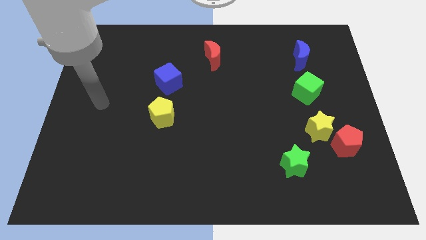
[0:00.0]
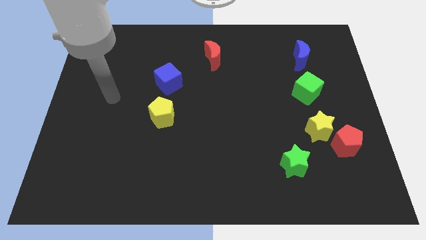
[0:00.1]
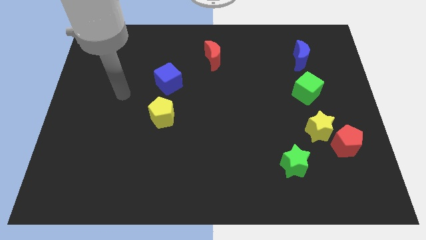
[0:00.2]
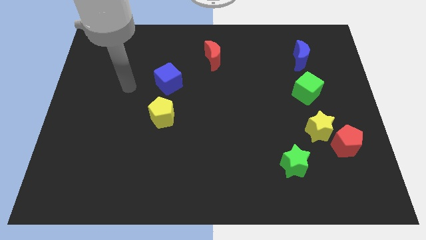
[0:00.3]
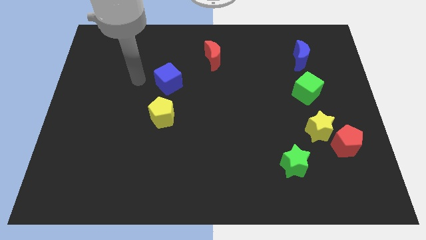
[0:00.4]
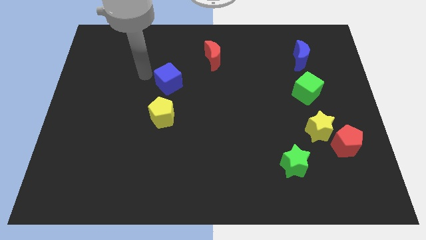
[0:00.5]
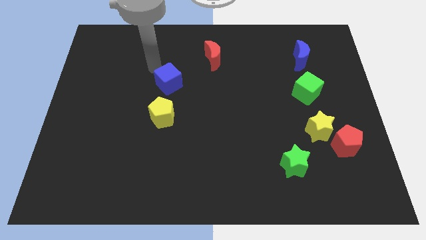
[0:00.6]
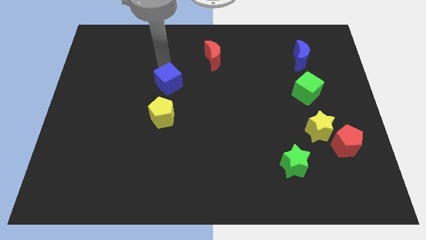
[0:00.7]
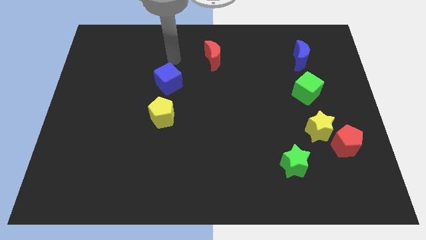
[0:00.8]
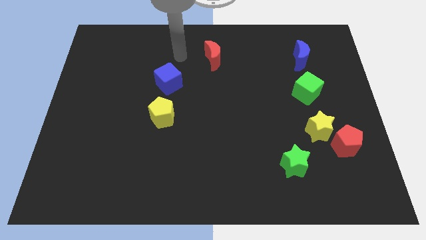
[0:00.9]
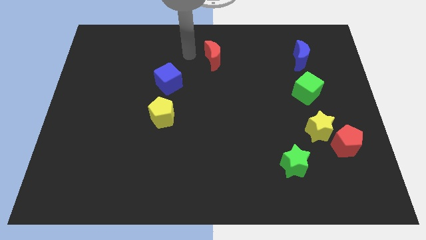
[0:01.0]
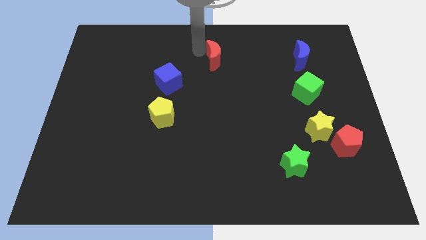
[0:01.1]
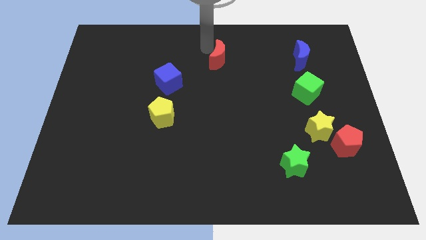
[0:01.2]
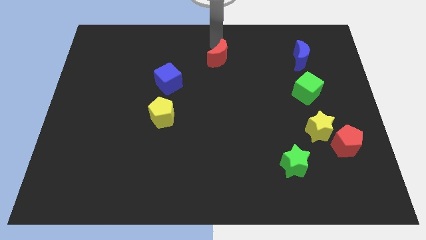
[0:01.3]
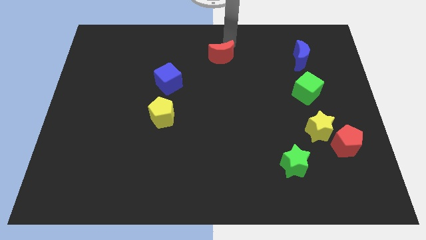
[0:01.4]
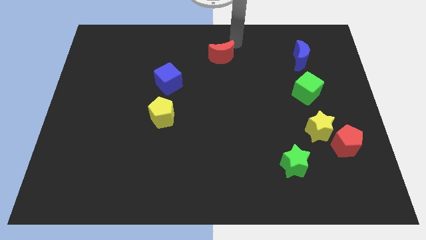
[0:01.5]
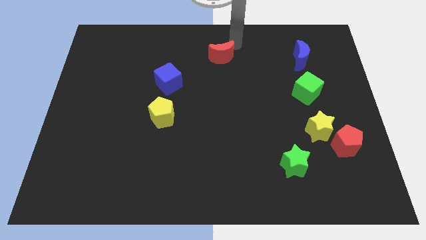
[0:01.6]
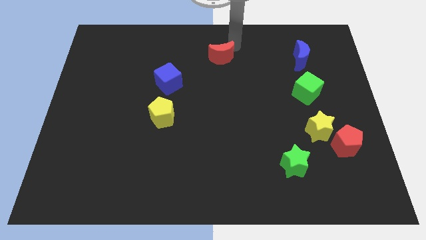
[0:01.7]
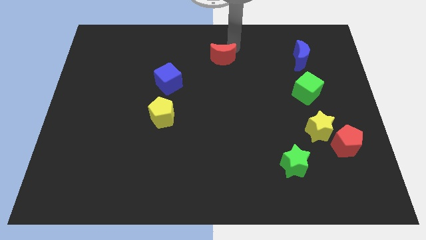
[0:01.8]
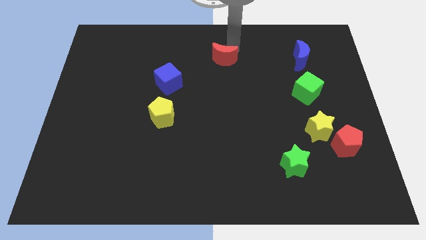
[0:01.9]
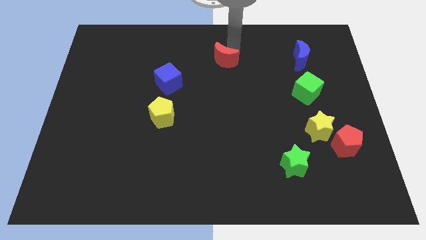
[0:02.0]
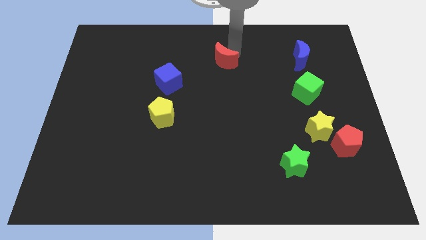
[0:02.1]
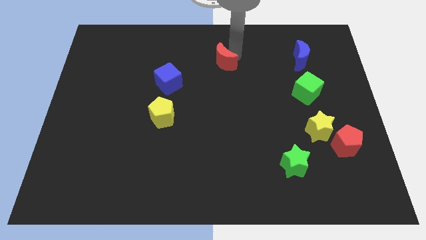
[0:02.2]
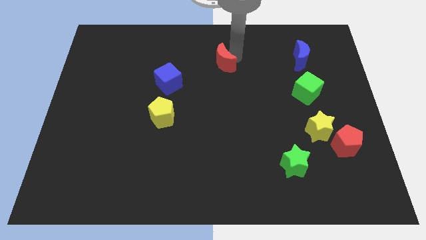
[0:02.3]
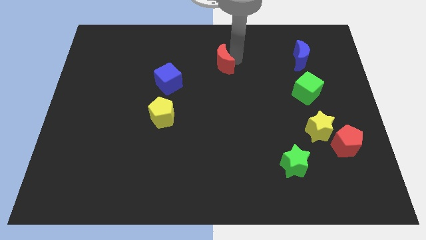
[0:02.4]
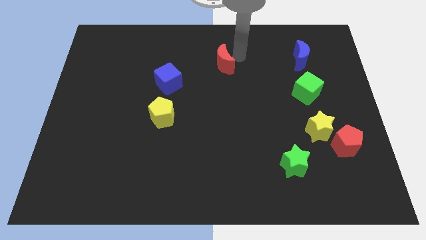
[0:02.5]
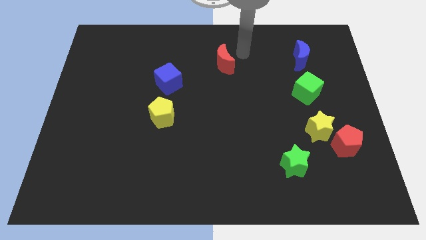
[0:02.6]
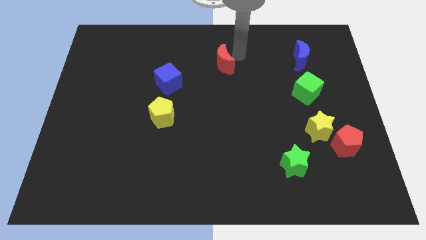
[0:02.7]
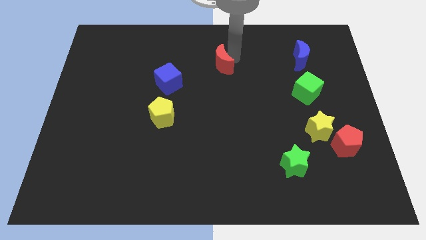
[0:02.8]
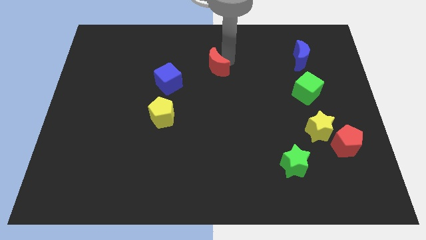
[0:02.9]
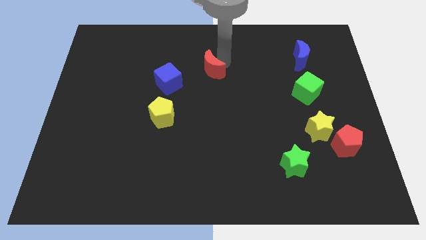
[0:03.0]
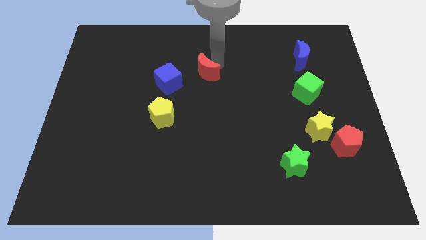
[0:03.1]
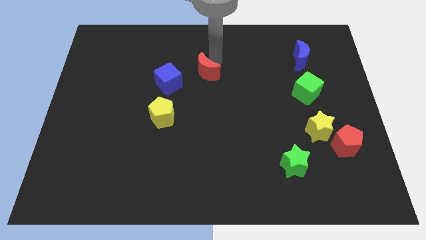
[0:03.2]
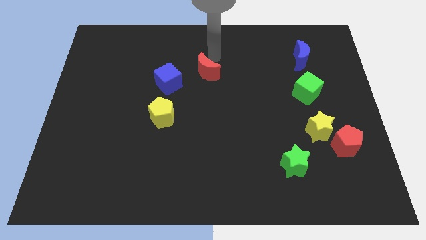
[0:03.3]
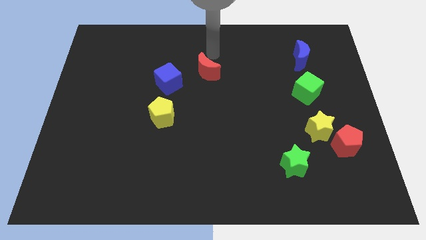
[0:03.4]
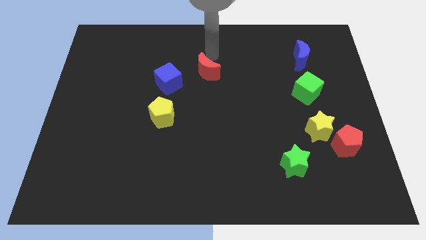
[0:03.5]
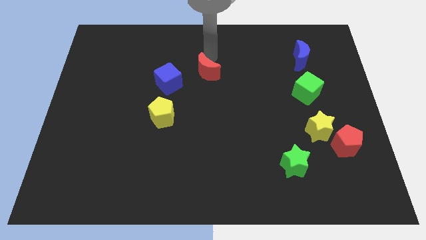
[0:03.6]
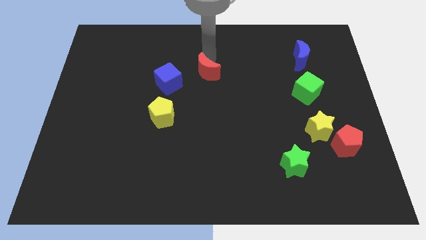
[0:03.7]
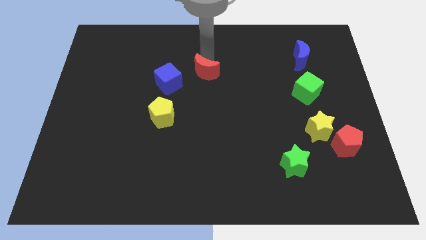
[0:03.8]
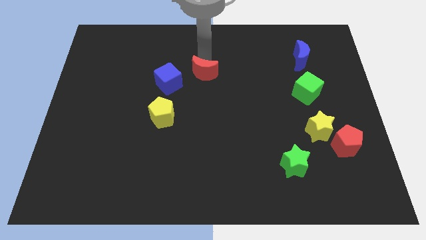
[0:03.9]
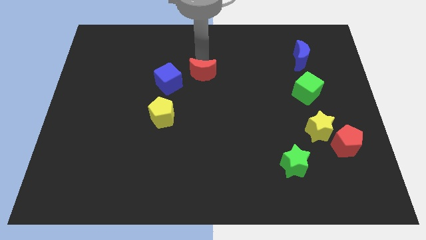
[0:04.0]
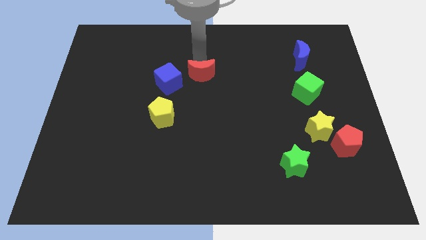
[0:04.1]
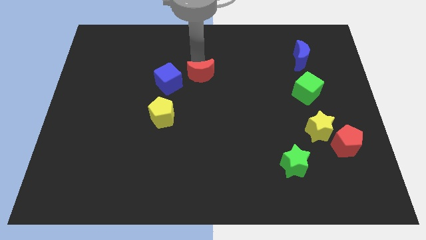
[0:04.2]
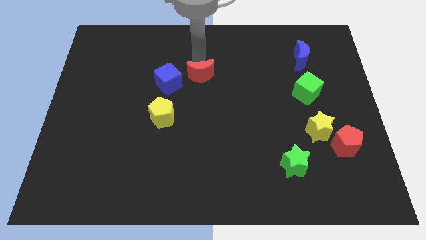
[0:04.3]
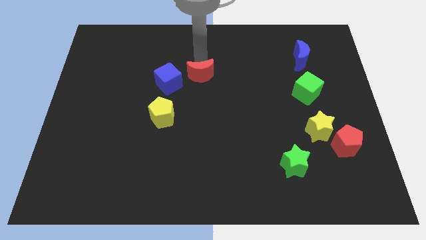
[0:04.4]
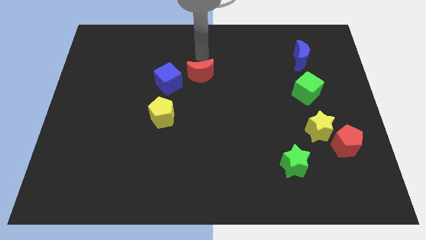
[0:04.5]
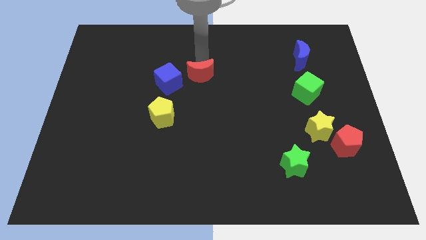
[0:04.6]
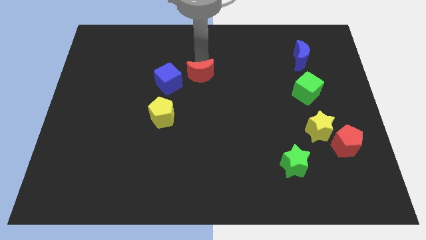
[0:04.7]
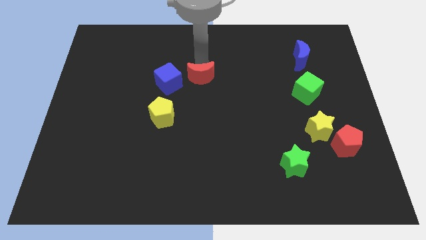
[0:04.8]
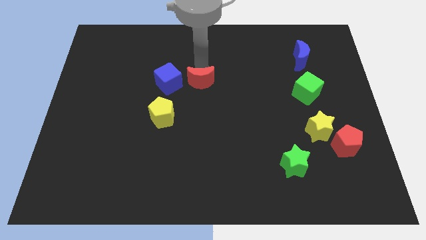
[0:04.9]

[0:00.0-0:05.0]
slightly move the red moon downwards

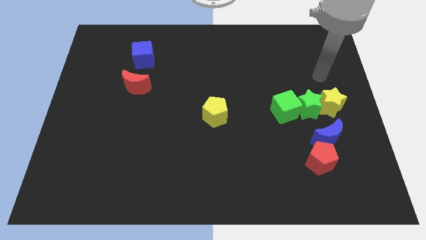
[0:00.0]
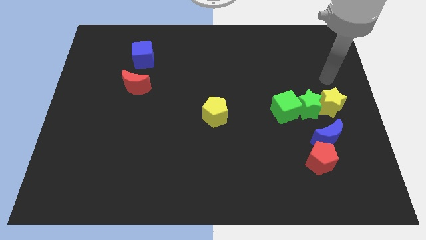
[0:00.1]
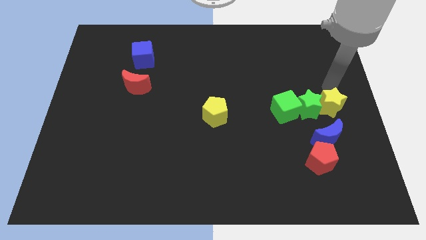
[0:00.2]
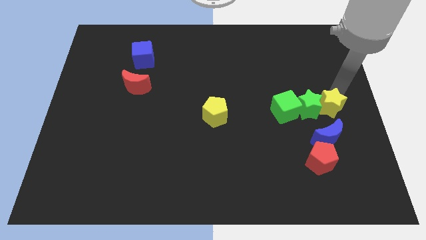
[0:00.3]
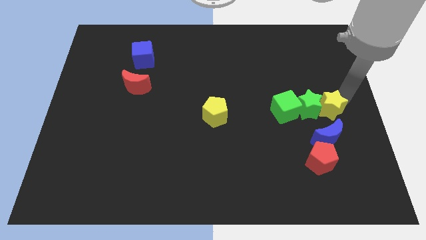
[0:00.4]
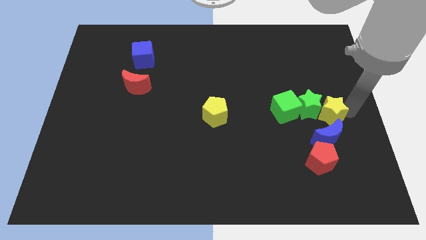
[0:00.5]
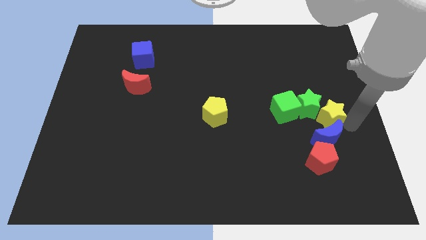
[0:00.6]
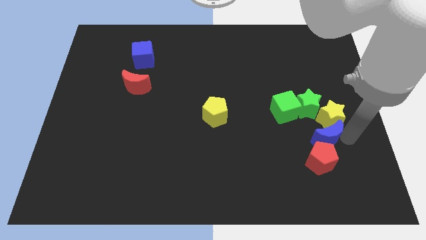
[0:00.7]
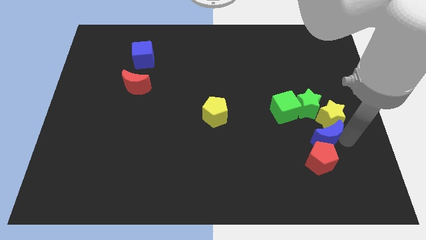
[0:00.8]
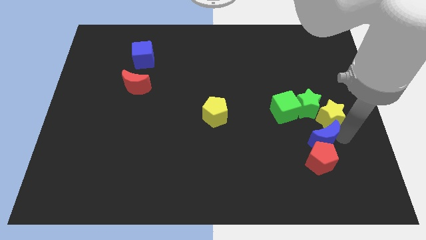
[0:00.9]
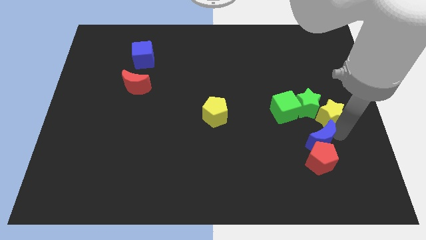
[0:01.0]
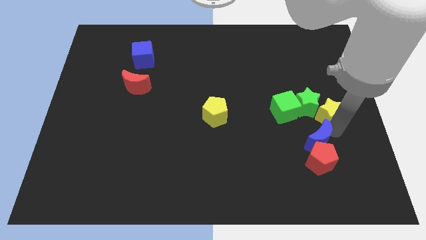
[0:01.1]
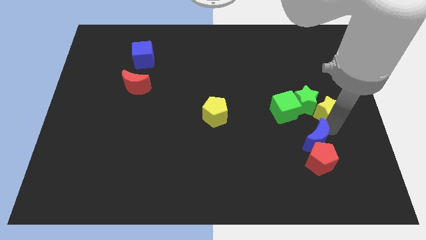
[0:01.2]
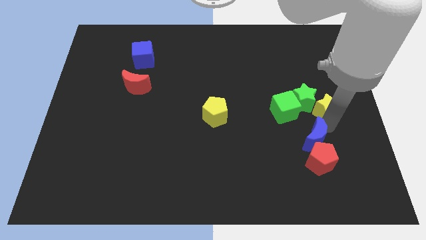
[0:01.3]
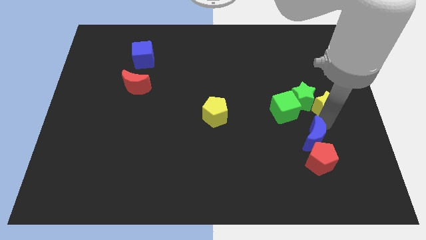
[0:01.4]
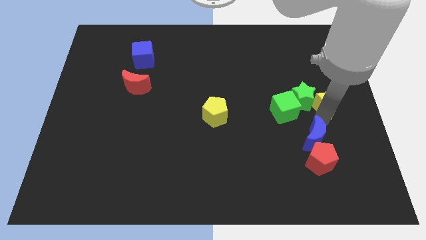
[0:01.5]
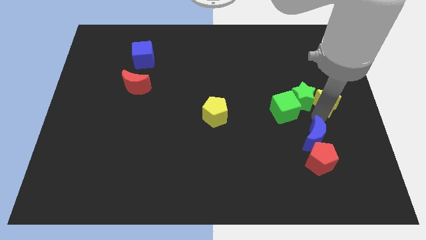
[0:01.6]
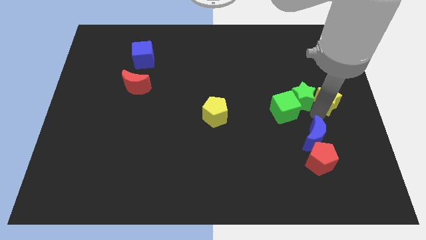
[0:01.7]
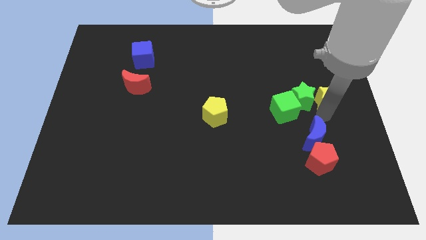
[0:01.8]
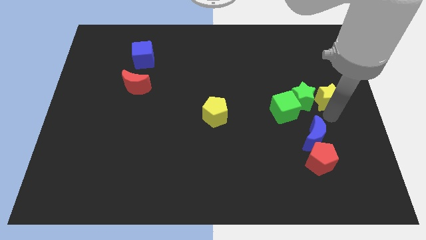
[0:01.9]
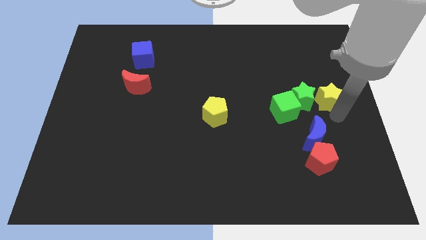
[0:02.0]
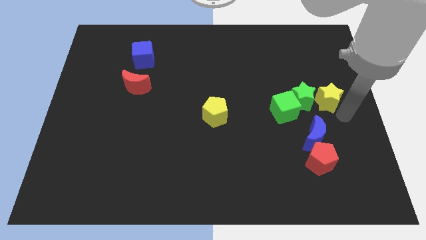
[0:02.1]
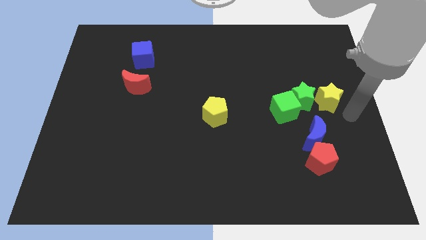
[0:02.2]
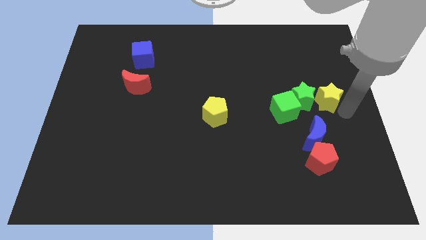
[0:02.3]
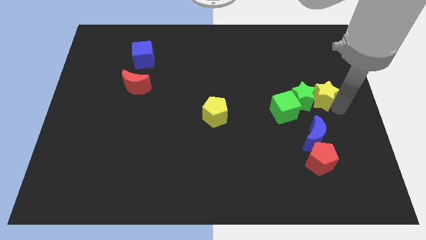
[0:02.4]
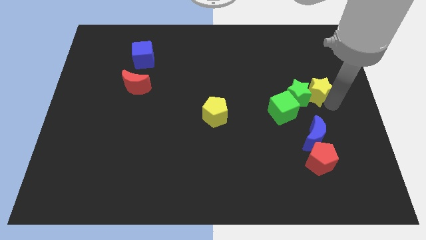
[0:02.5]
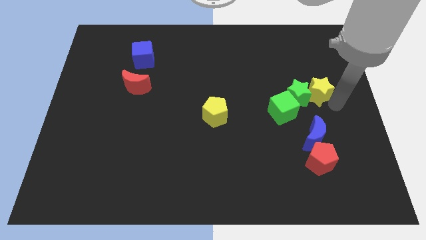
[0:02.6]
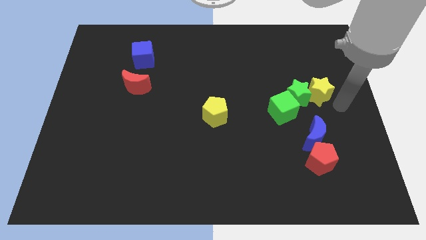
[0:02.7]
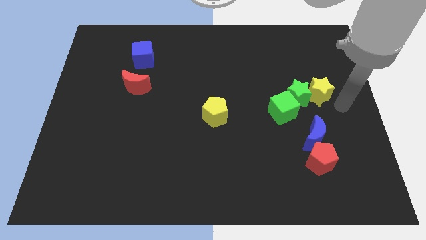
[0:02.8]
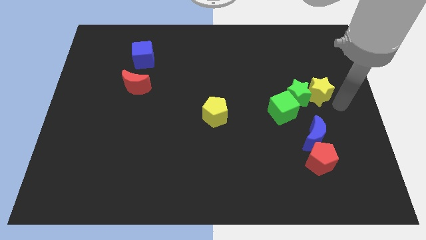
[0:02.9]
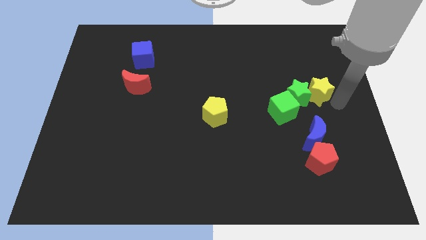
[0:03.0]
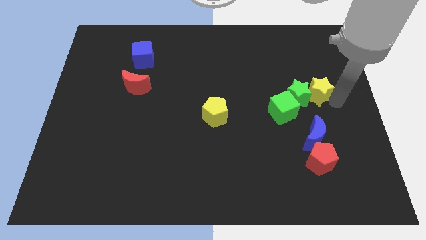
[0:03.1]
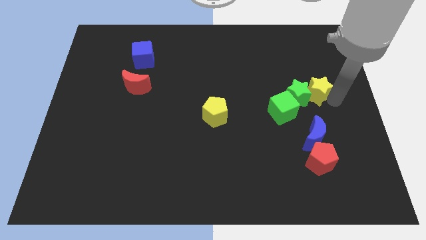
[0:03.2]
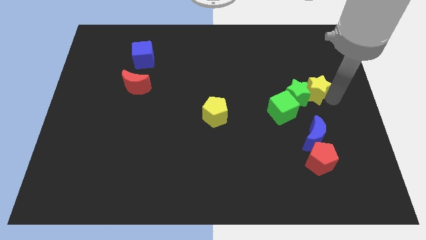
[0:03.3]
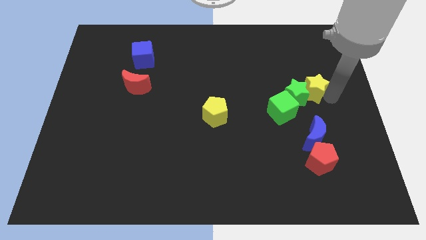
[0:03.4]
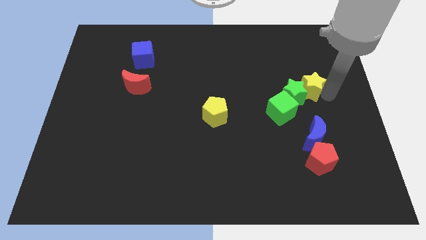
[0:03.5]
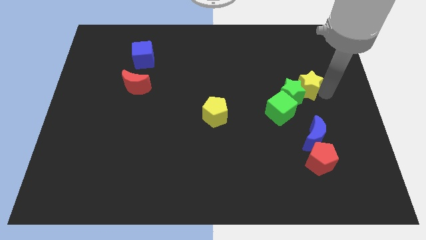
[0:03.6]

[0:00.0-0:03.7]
push the yellow star a little bit upwards and then left
